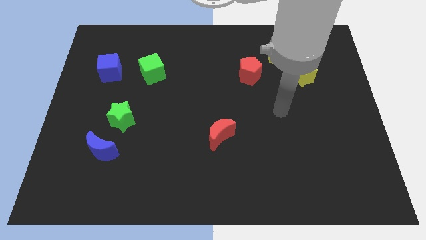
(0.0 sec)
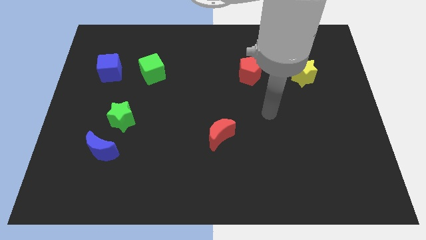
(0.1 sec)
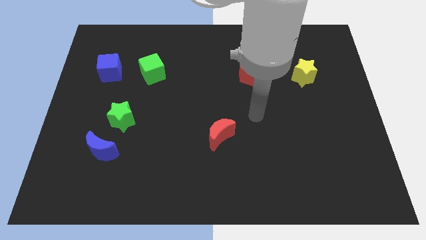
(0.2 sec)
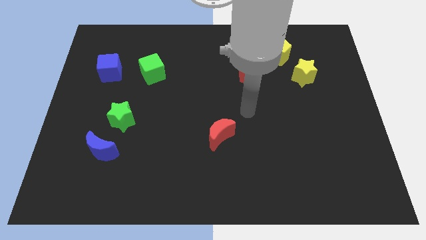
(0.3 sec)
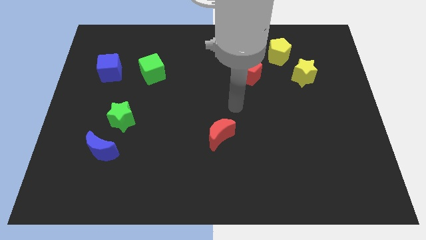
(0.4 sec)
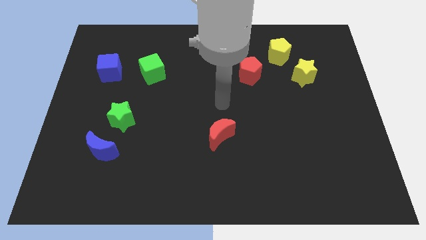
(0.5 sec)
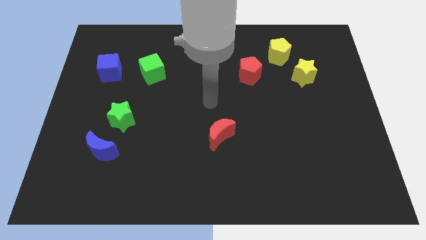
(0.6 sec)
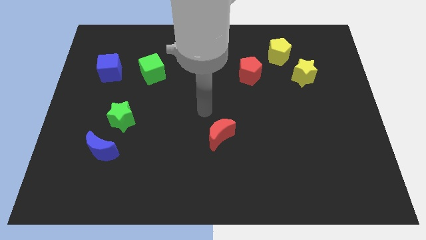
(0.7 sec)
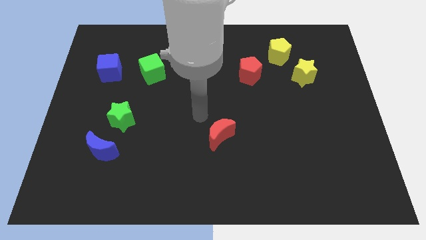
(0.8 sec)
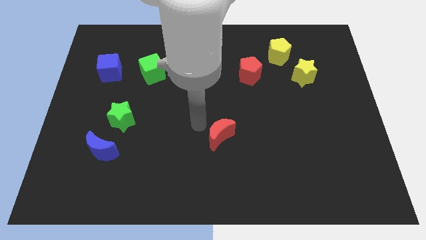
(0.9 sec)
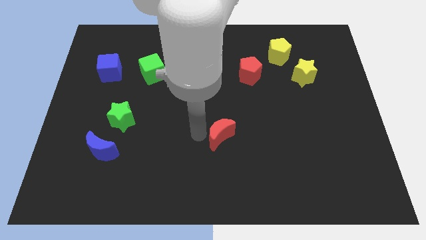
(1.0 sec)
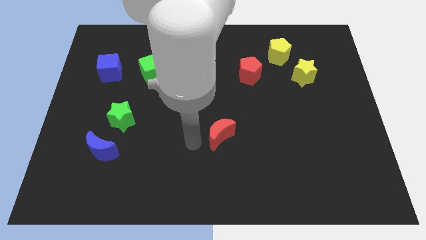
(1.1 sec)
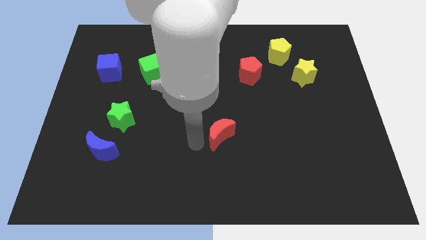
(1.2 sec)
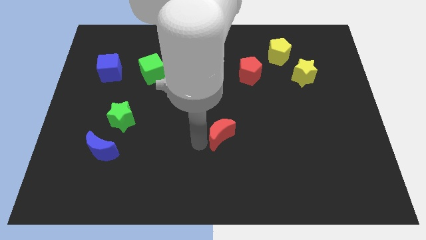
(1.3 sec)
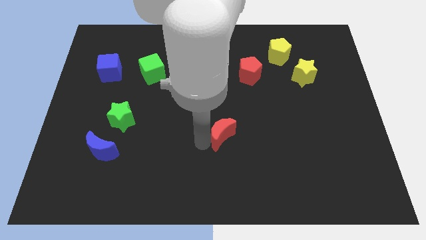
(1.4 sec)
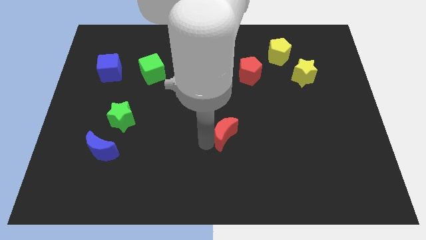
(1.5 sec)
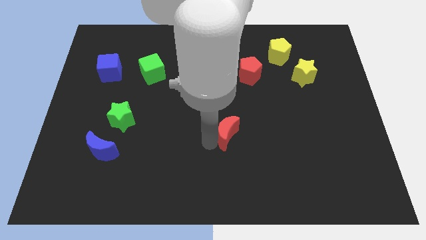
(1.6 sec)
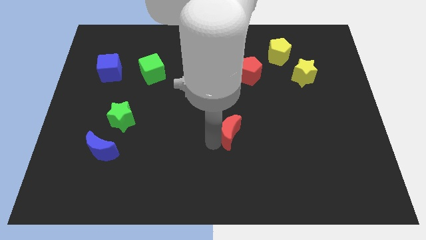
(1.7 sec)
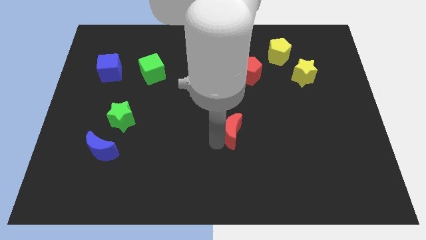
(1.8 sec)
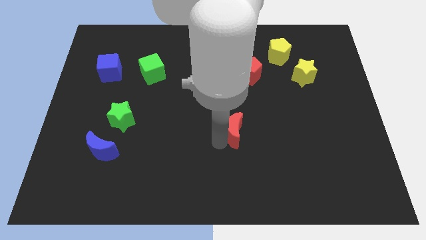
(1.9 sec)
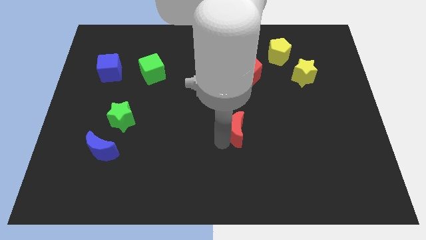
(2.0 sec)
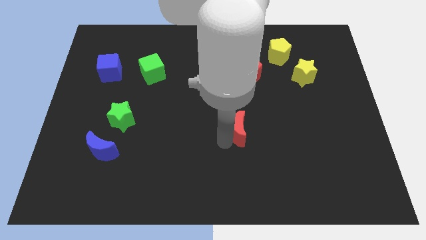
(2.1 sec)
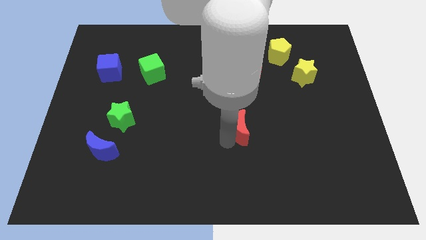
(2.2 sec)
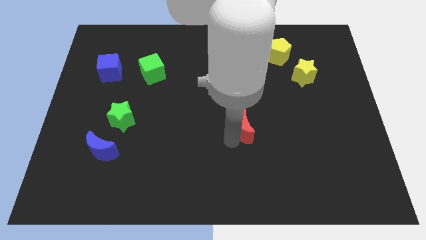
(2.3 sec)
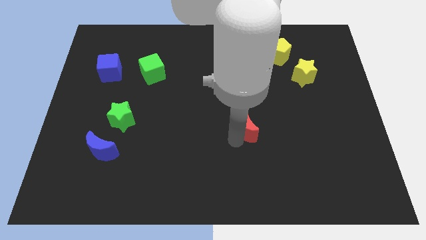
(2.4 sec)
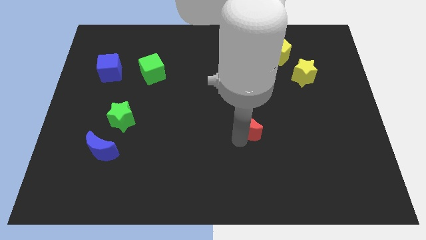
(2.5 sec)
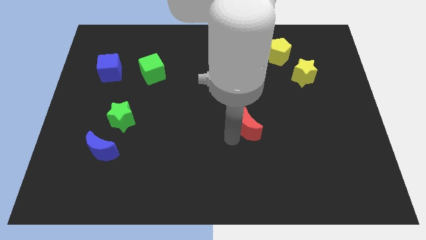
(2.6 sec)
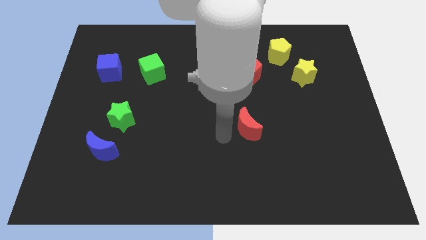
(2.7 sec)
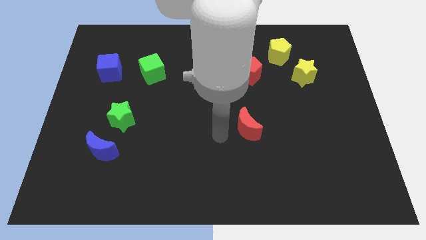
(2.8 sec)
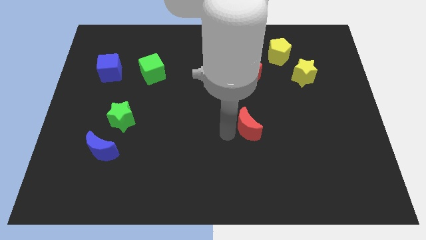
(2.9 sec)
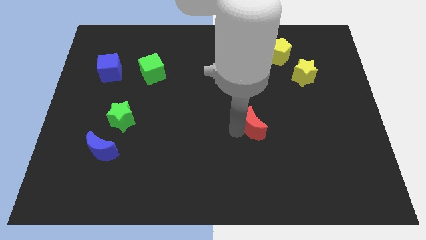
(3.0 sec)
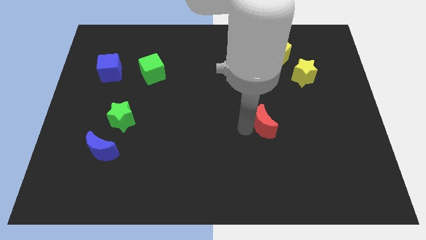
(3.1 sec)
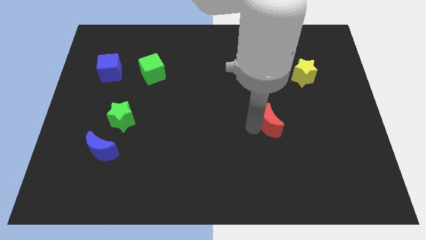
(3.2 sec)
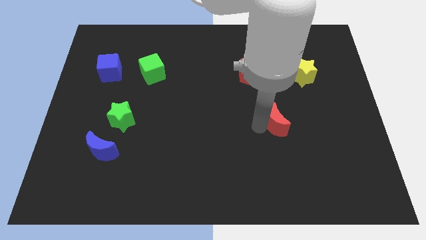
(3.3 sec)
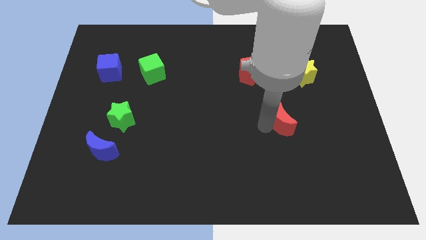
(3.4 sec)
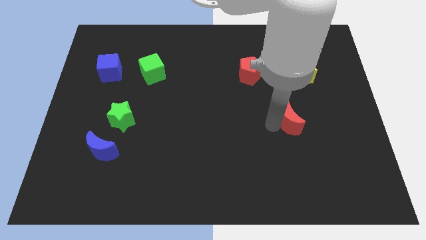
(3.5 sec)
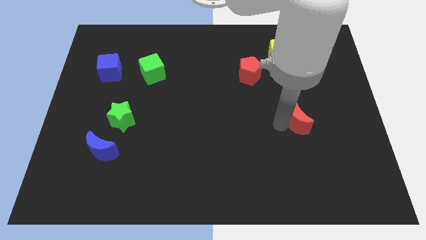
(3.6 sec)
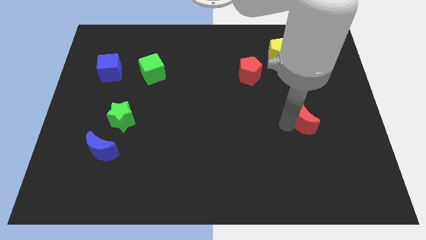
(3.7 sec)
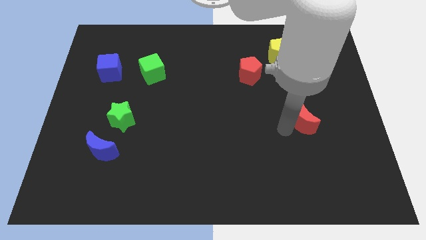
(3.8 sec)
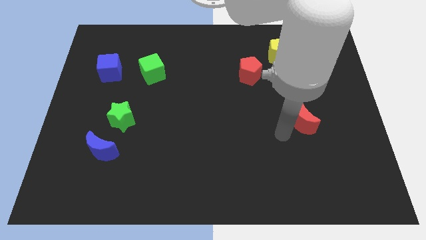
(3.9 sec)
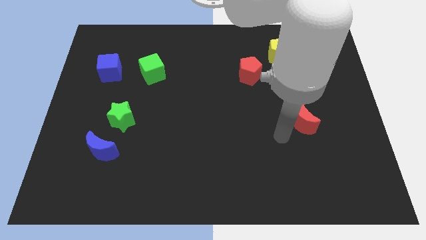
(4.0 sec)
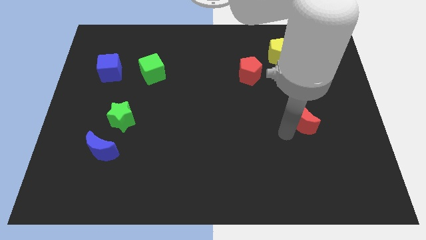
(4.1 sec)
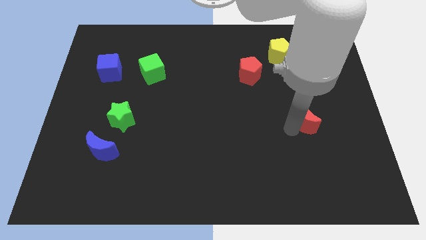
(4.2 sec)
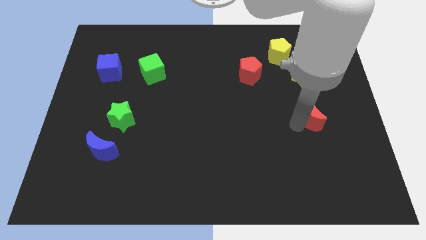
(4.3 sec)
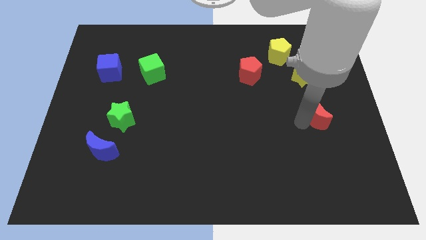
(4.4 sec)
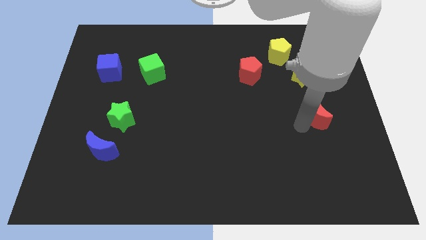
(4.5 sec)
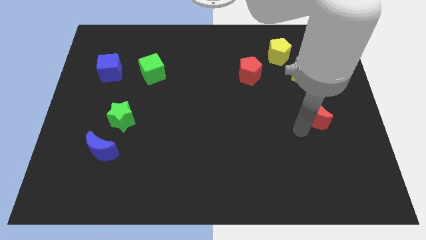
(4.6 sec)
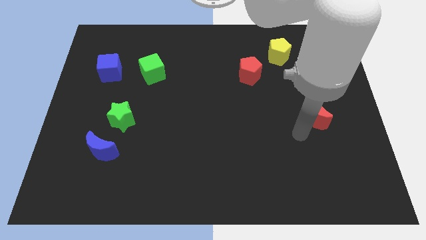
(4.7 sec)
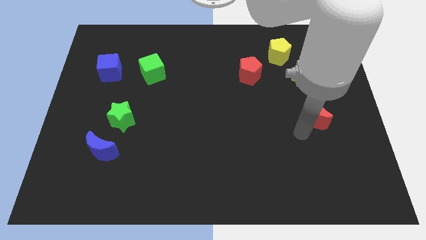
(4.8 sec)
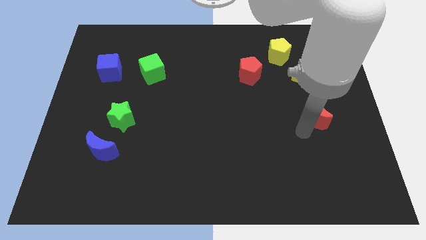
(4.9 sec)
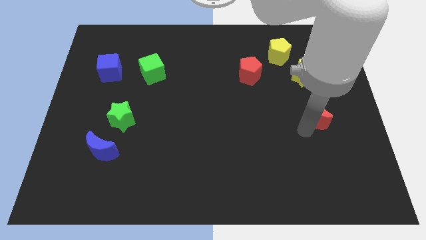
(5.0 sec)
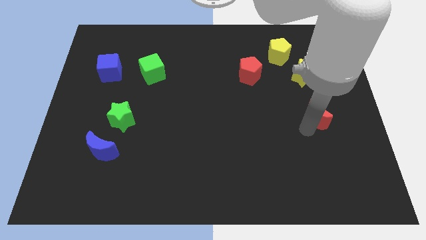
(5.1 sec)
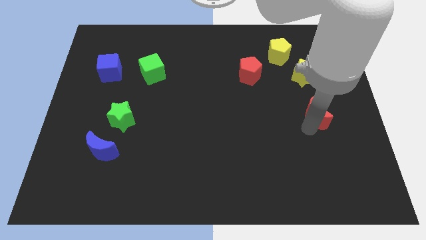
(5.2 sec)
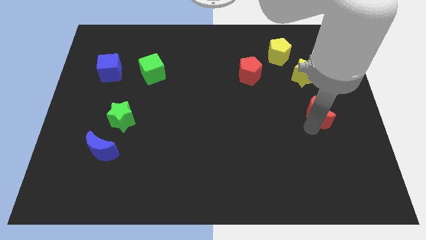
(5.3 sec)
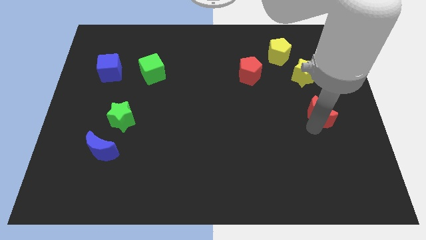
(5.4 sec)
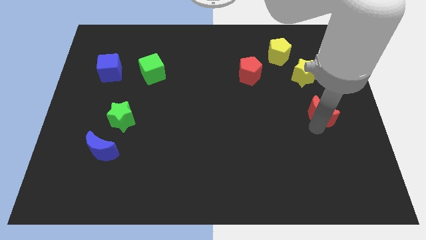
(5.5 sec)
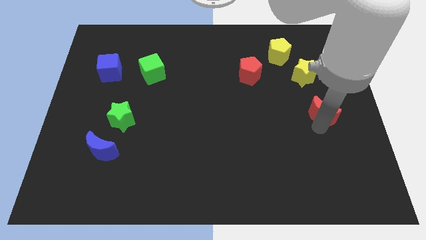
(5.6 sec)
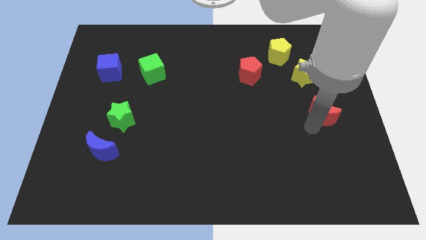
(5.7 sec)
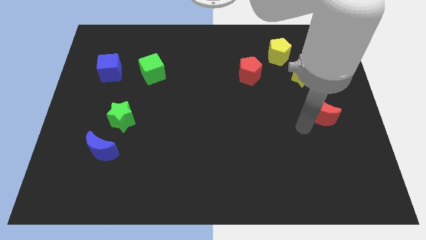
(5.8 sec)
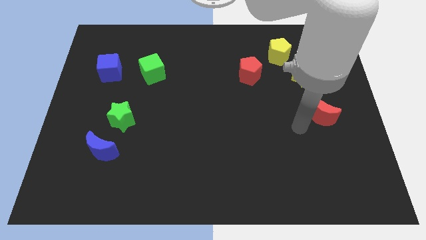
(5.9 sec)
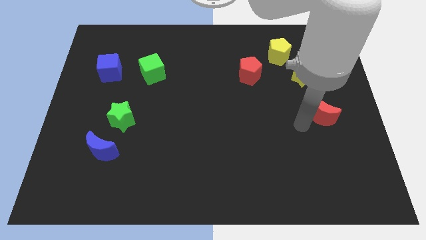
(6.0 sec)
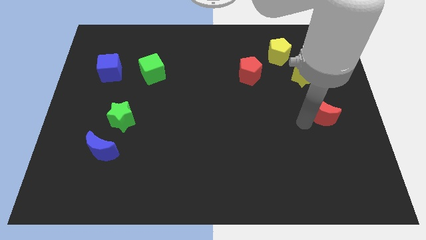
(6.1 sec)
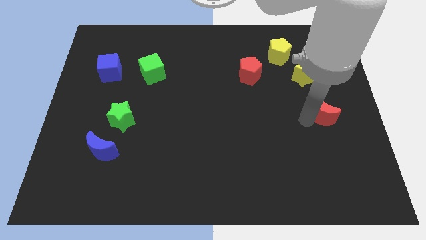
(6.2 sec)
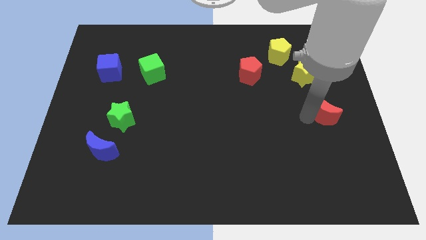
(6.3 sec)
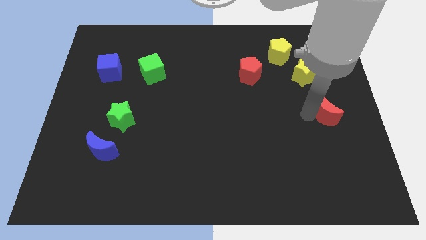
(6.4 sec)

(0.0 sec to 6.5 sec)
slide the red moon to the center right
